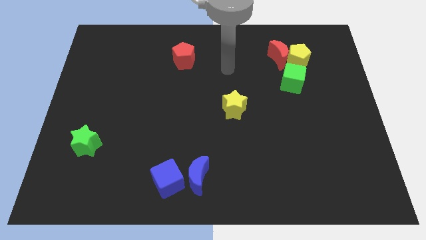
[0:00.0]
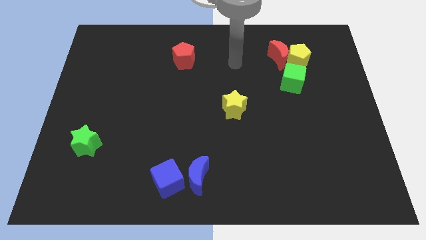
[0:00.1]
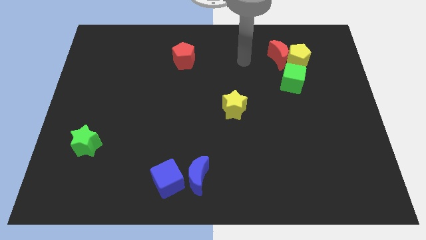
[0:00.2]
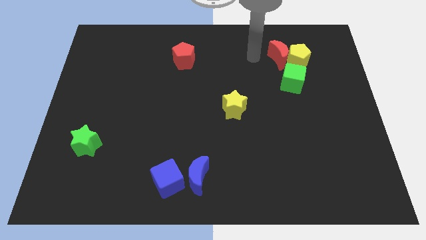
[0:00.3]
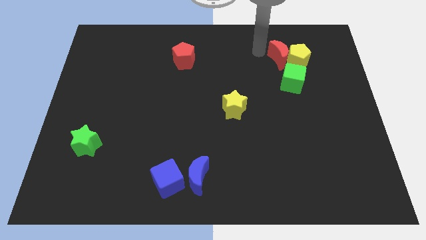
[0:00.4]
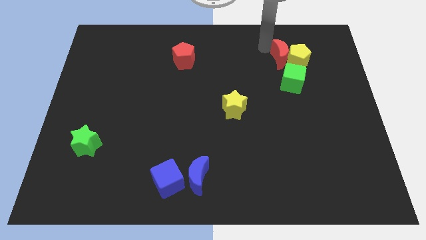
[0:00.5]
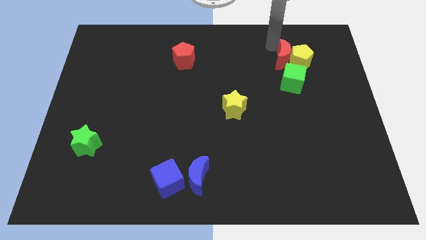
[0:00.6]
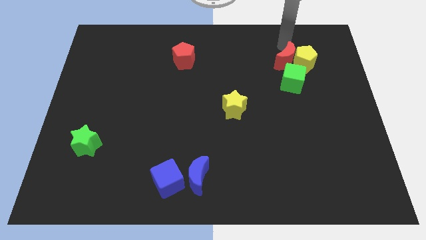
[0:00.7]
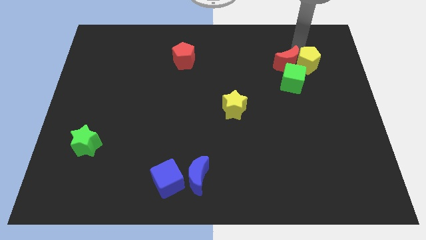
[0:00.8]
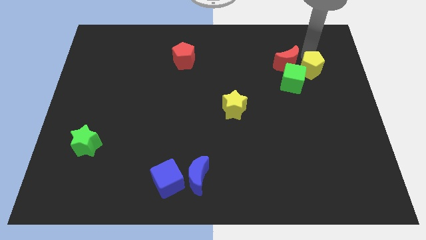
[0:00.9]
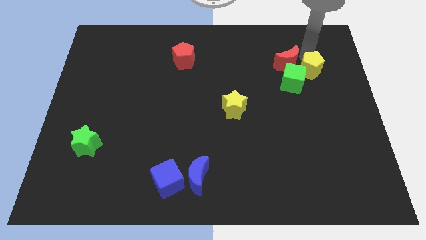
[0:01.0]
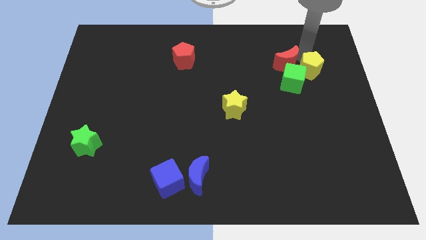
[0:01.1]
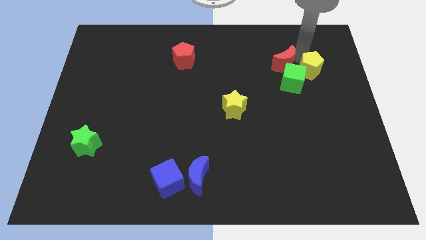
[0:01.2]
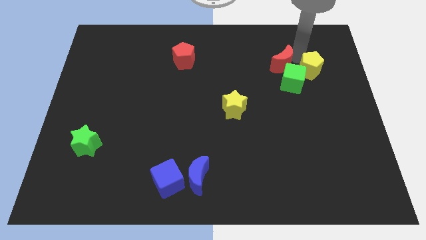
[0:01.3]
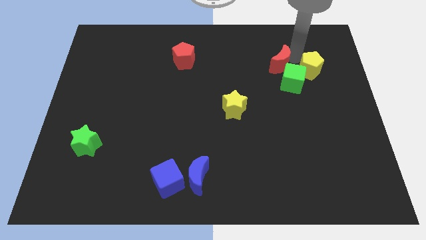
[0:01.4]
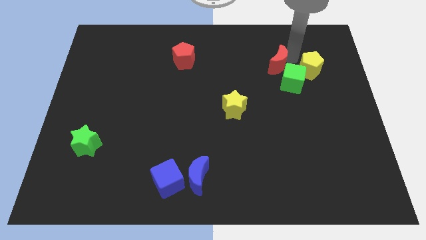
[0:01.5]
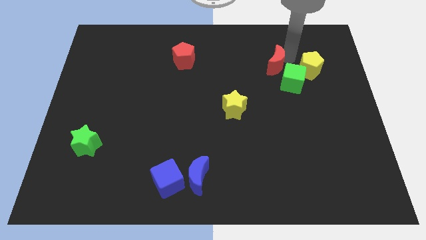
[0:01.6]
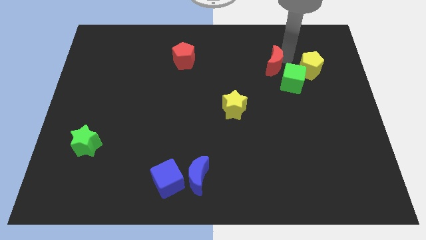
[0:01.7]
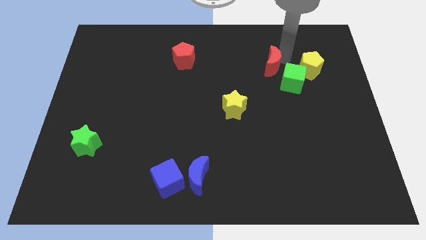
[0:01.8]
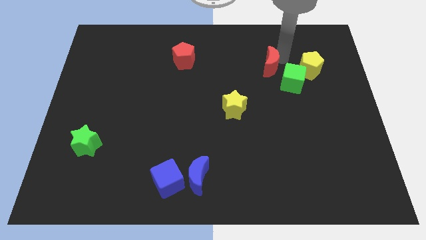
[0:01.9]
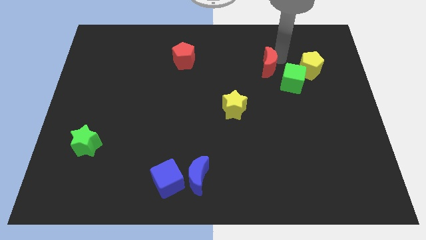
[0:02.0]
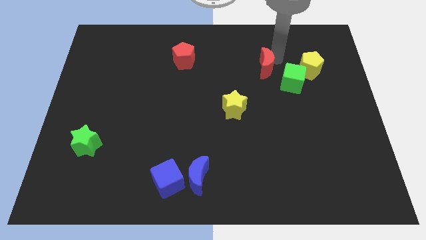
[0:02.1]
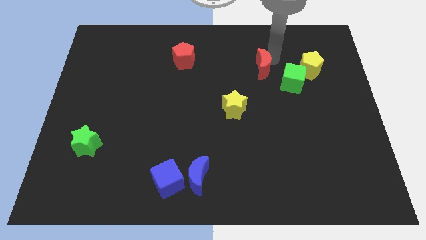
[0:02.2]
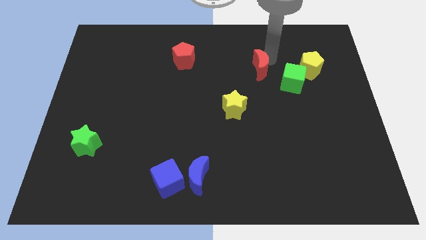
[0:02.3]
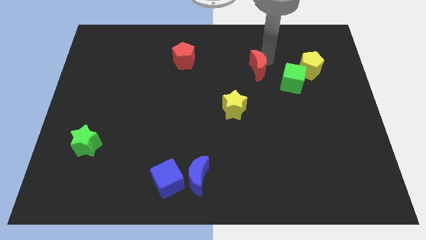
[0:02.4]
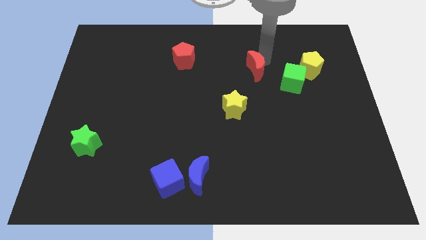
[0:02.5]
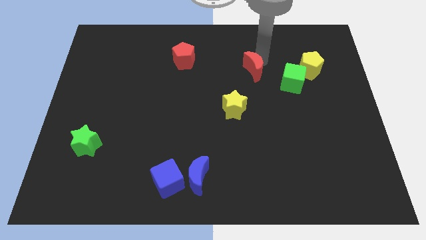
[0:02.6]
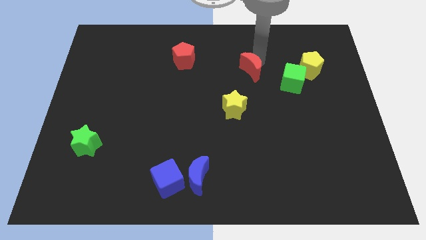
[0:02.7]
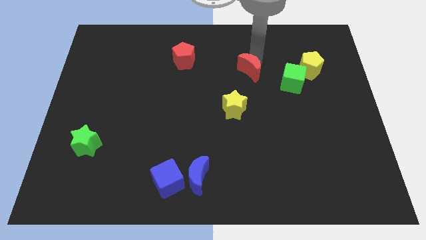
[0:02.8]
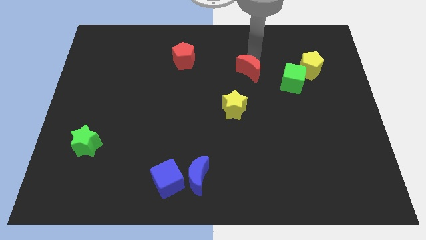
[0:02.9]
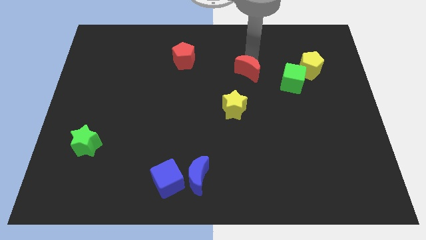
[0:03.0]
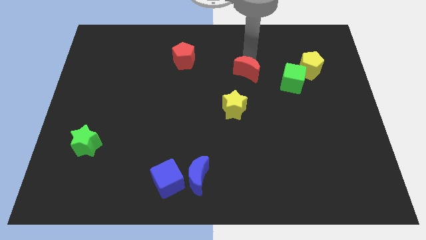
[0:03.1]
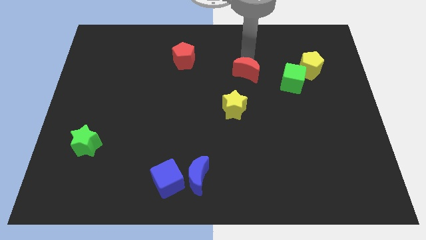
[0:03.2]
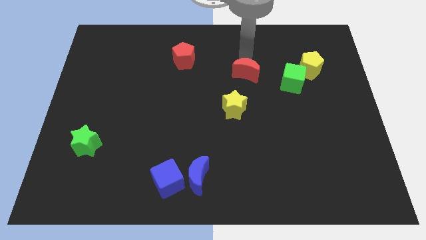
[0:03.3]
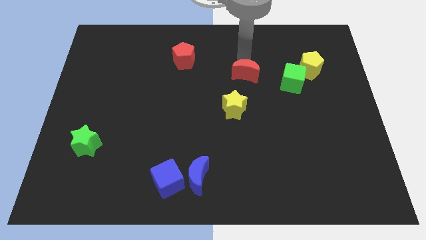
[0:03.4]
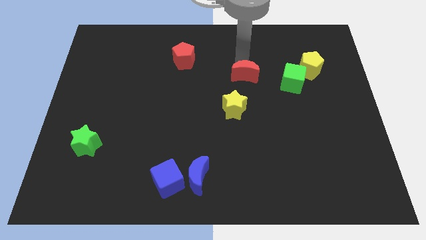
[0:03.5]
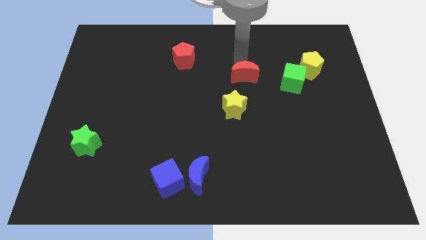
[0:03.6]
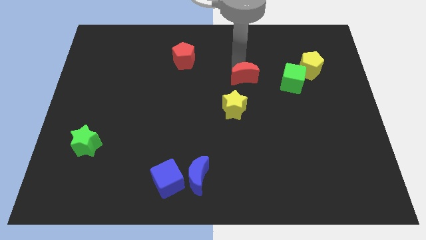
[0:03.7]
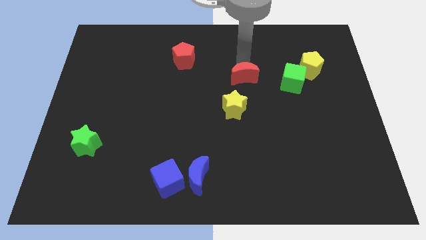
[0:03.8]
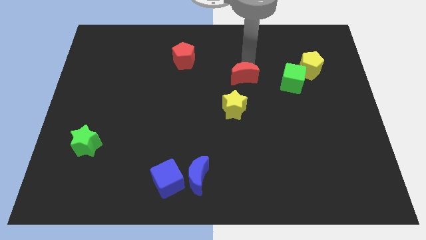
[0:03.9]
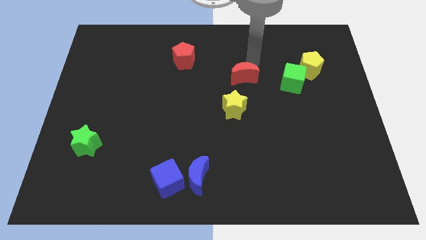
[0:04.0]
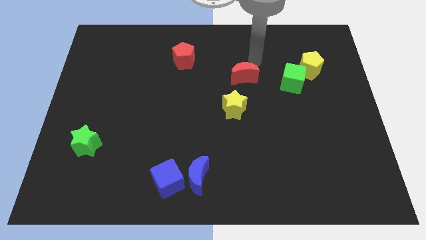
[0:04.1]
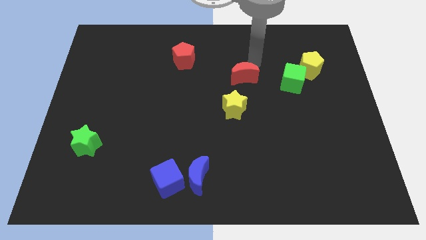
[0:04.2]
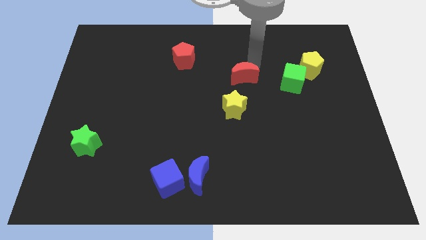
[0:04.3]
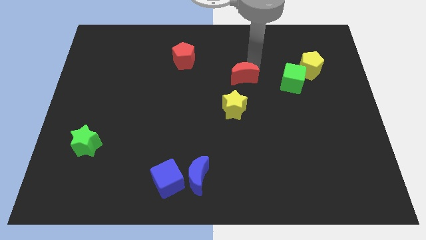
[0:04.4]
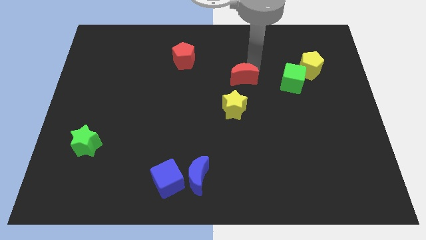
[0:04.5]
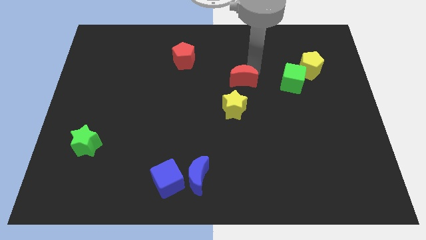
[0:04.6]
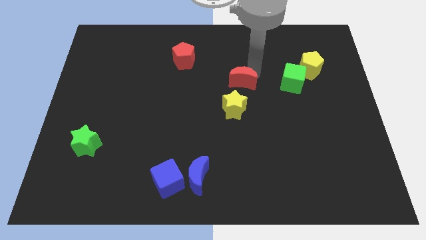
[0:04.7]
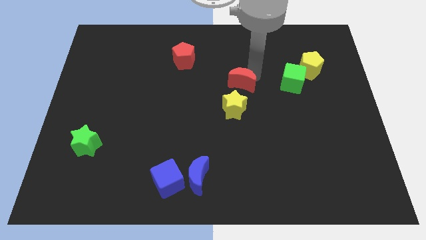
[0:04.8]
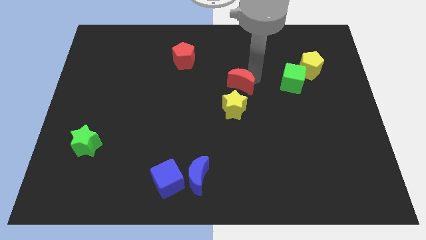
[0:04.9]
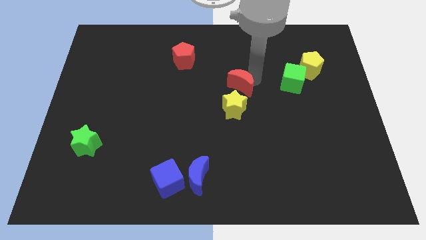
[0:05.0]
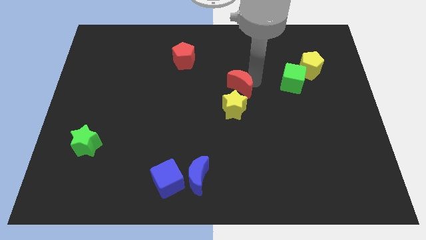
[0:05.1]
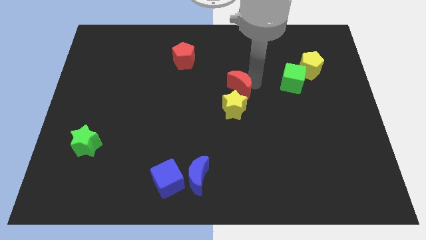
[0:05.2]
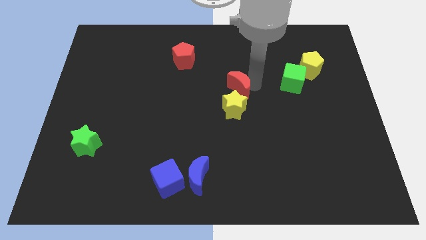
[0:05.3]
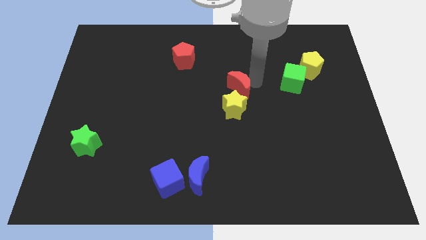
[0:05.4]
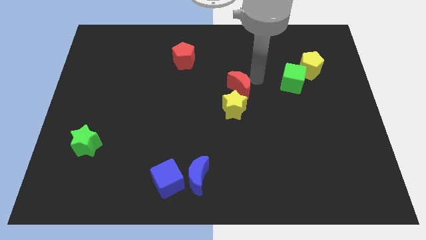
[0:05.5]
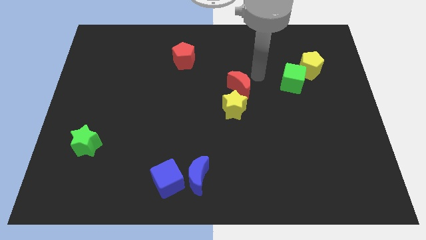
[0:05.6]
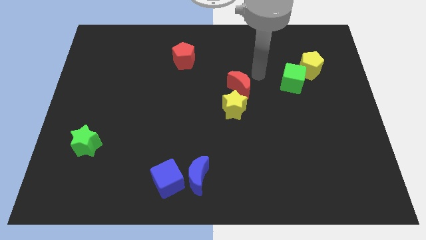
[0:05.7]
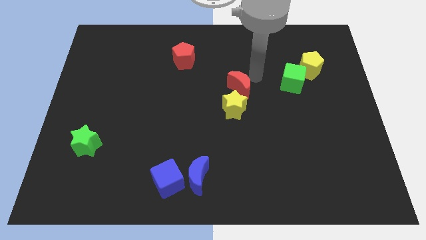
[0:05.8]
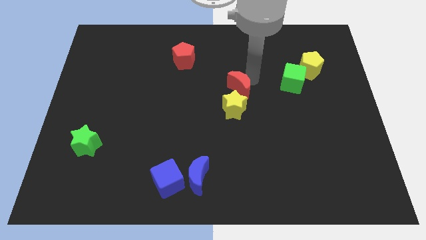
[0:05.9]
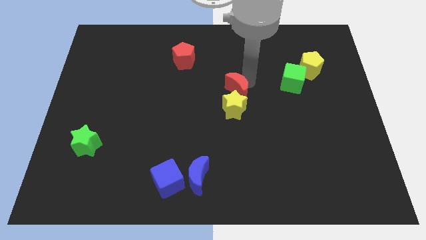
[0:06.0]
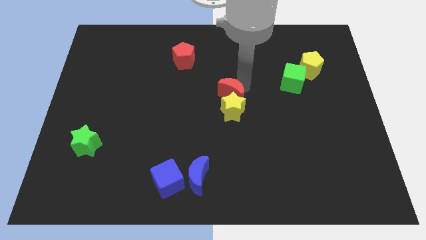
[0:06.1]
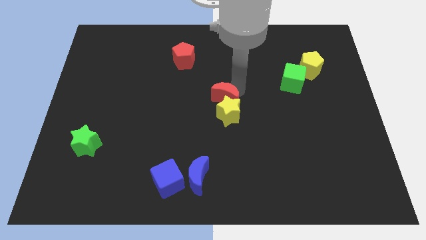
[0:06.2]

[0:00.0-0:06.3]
move the red moon downwards and then left

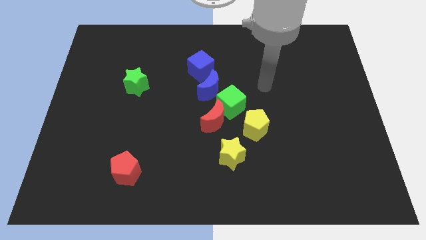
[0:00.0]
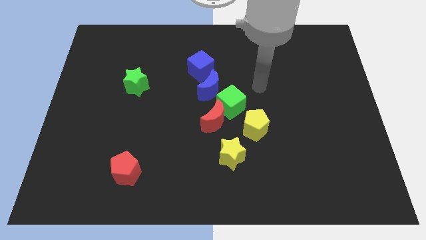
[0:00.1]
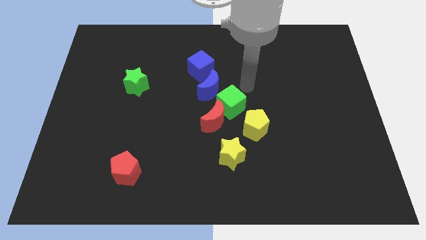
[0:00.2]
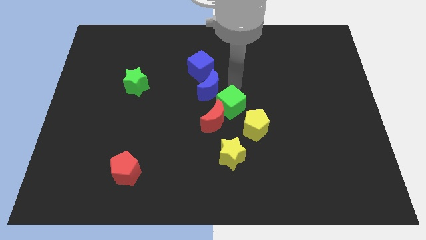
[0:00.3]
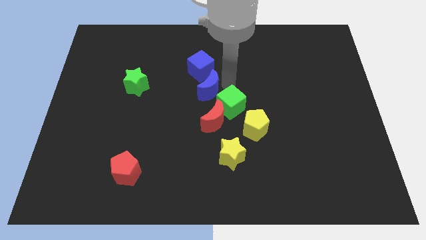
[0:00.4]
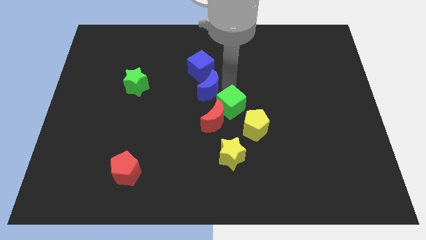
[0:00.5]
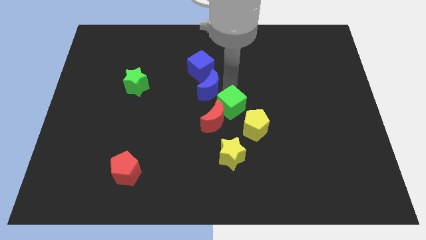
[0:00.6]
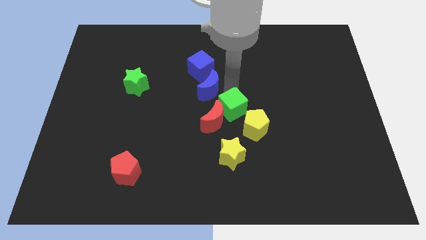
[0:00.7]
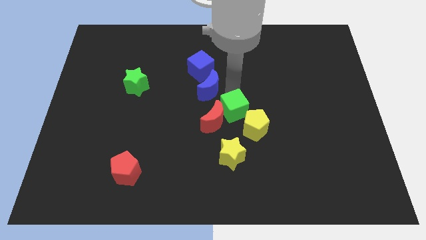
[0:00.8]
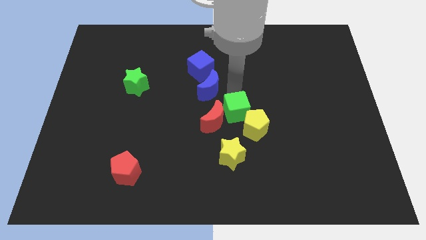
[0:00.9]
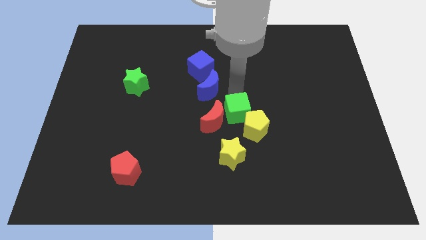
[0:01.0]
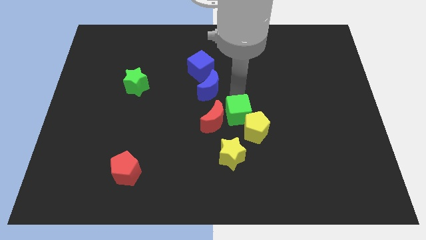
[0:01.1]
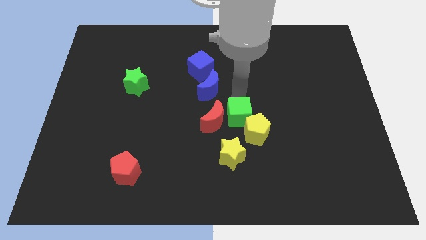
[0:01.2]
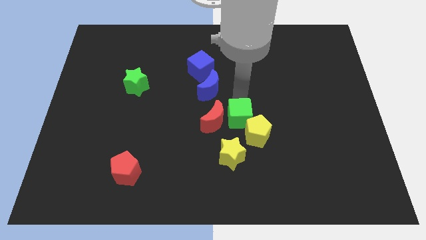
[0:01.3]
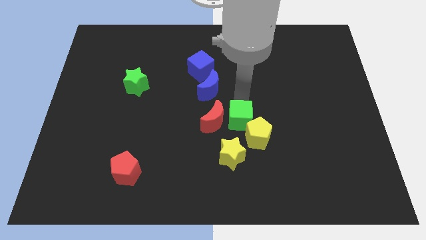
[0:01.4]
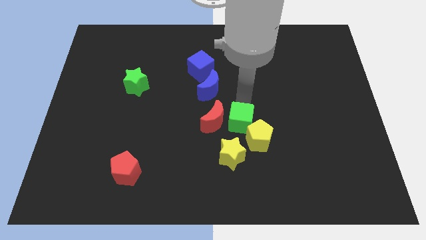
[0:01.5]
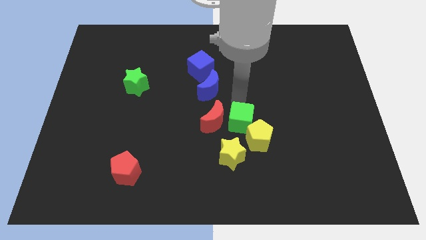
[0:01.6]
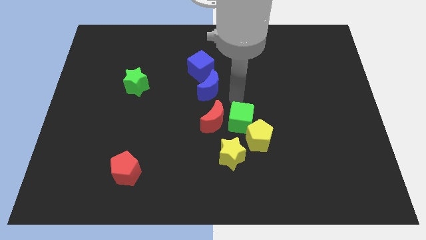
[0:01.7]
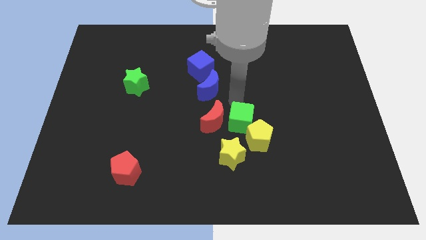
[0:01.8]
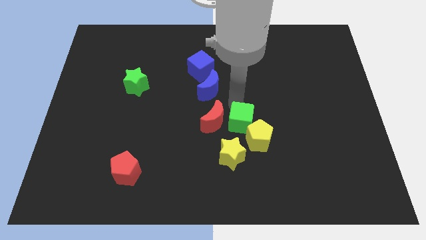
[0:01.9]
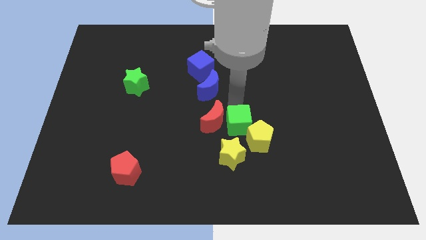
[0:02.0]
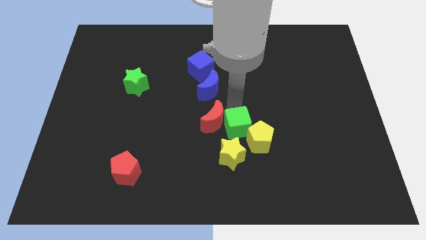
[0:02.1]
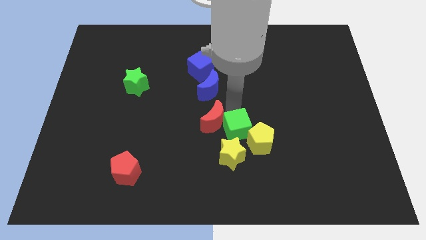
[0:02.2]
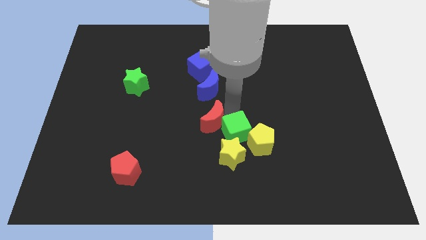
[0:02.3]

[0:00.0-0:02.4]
push the green cube somewhat down
